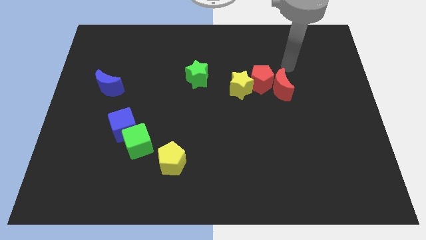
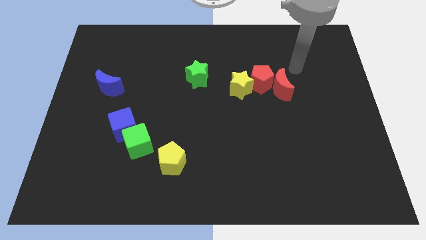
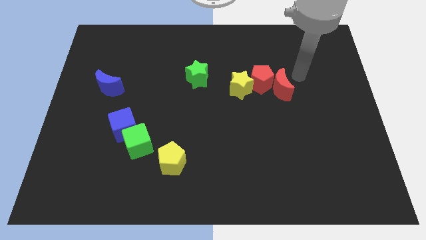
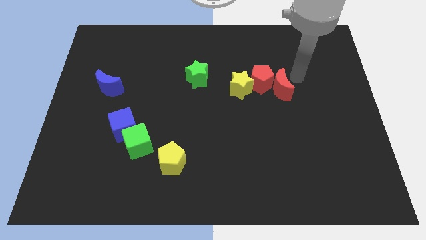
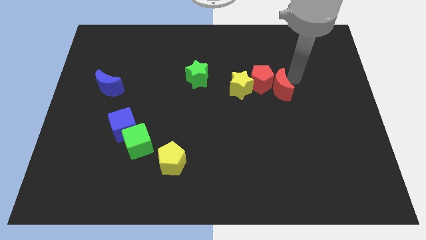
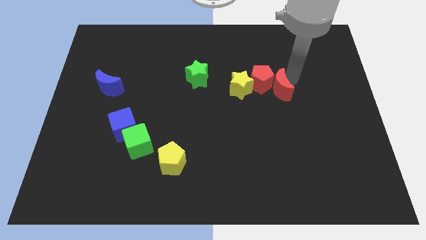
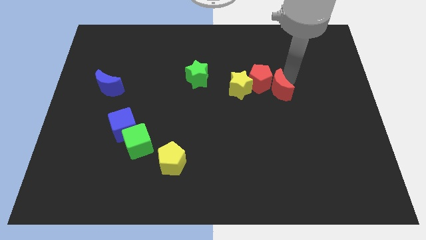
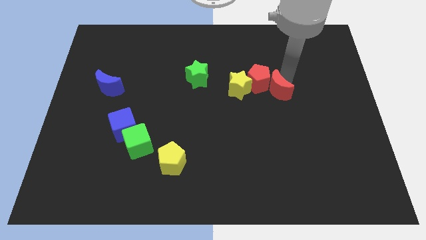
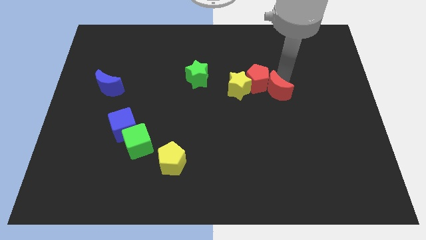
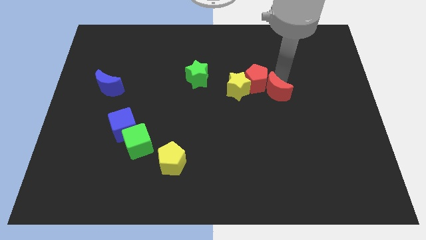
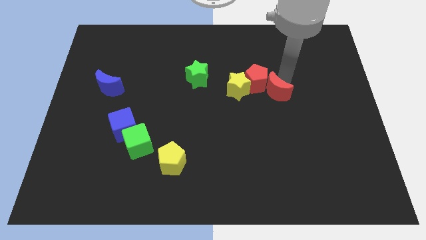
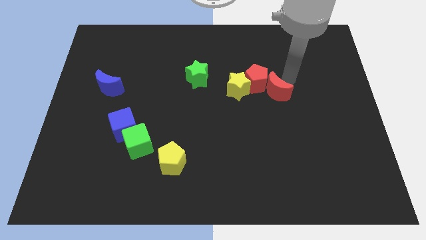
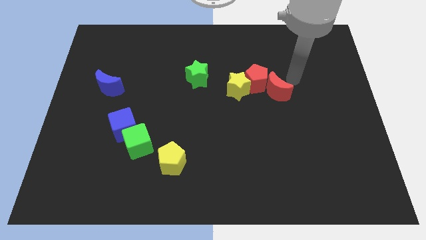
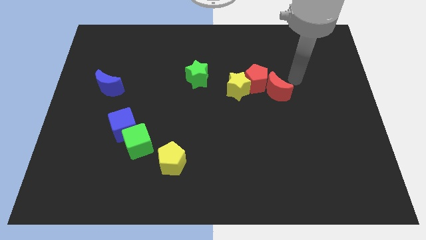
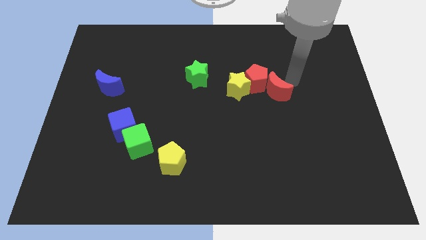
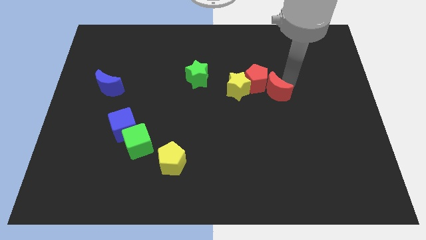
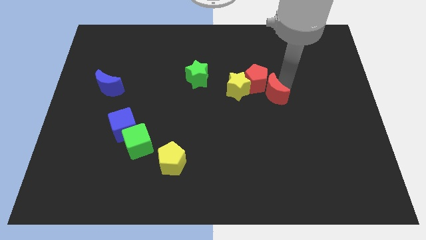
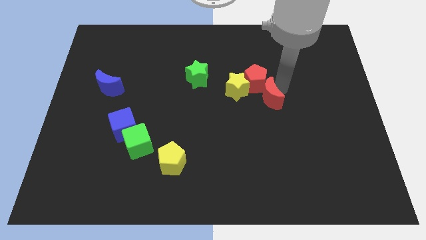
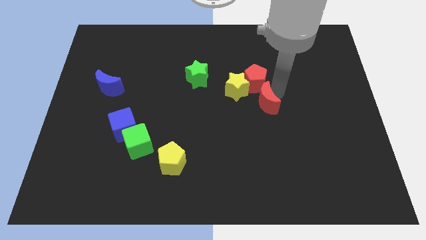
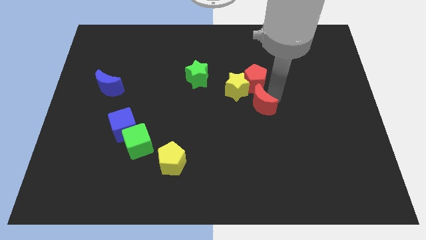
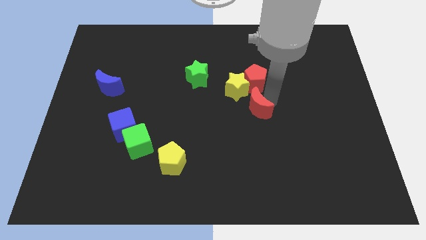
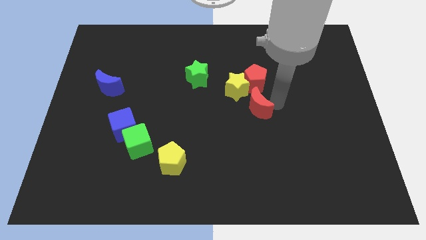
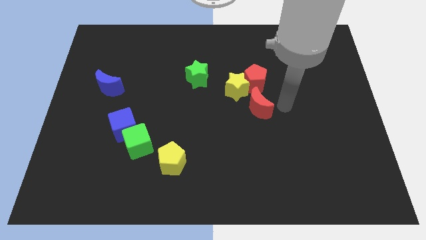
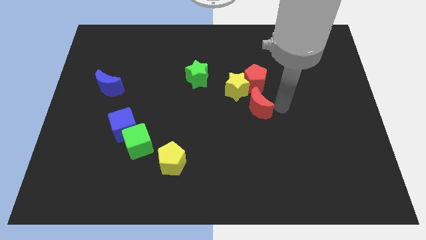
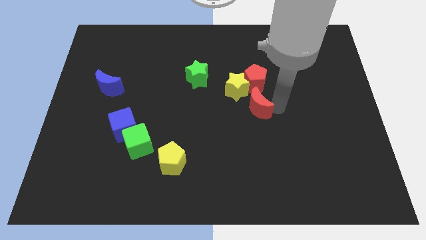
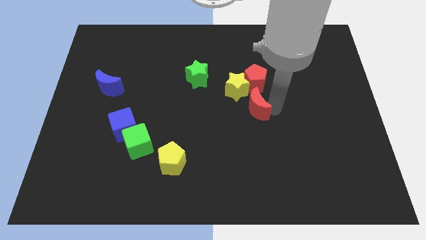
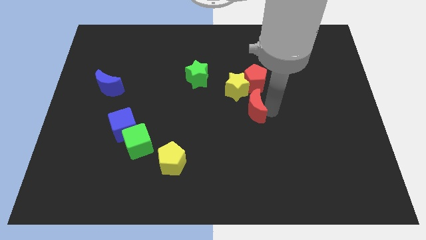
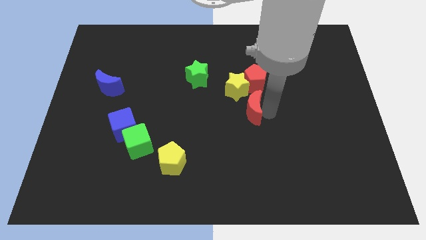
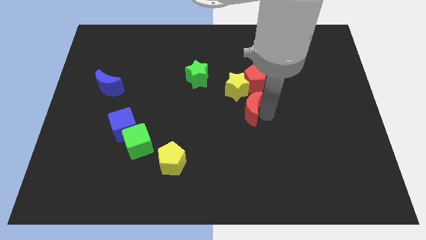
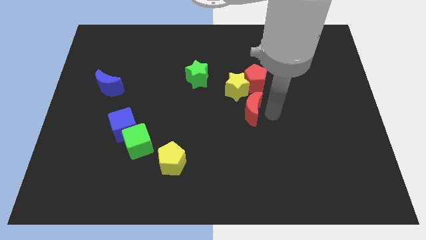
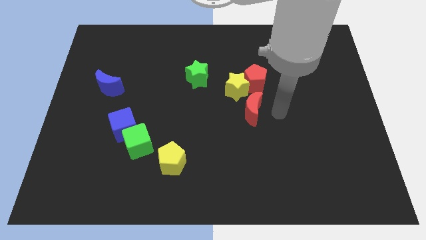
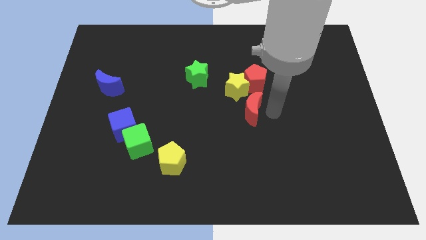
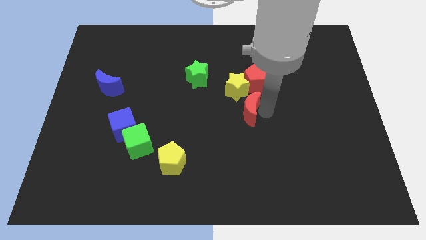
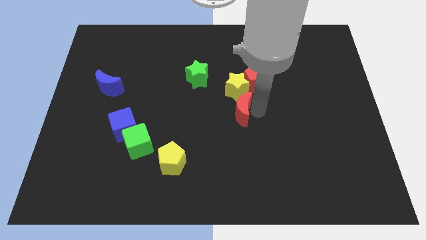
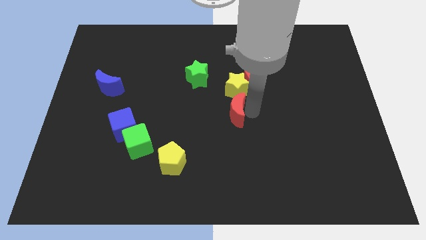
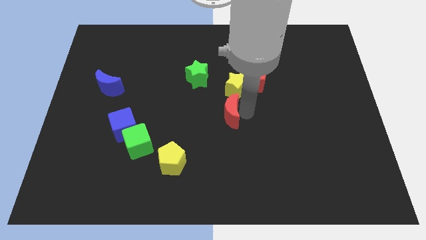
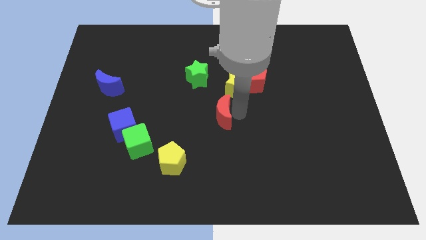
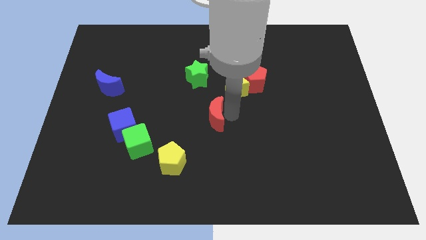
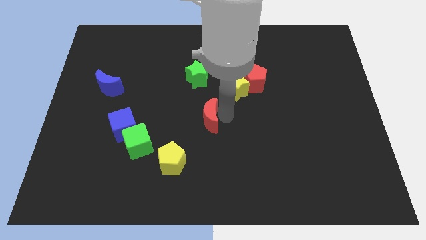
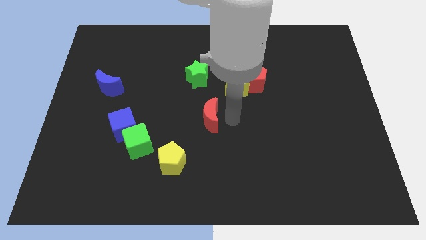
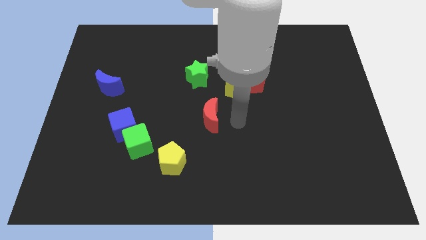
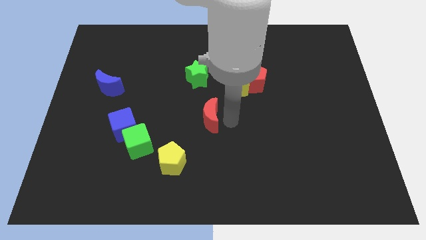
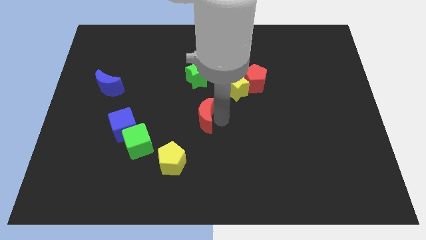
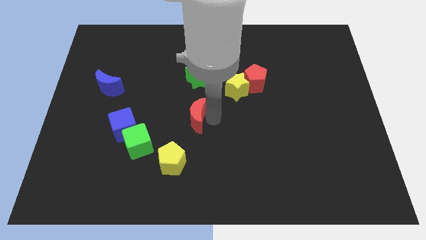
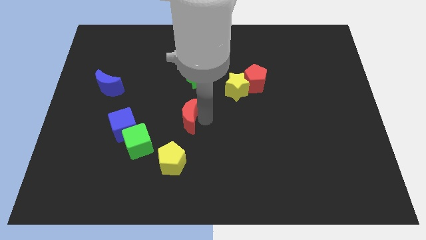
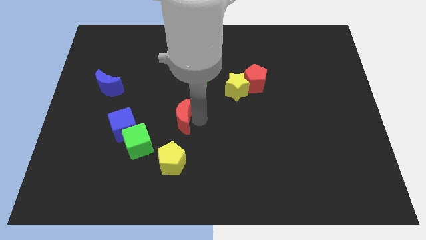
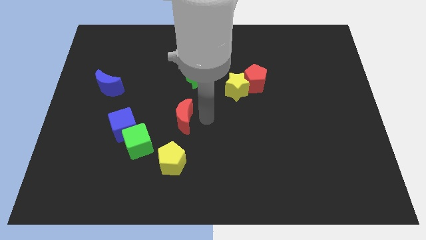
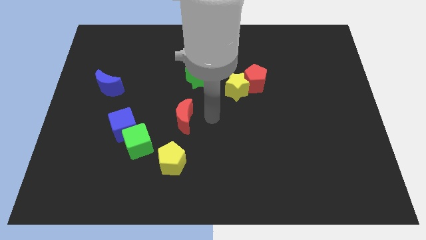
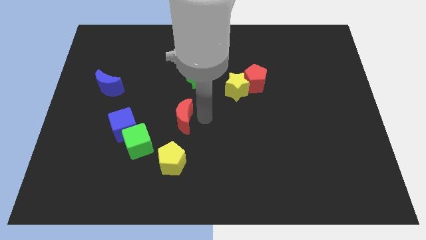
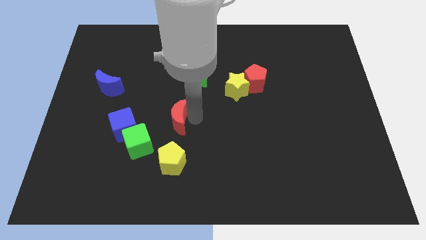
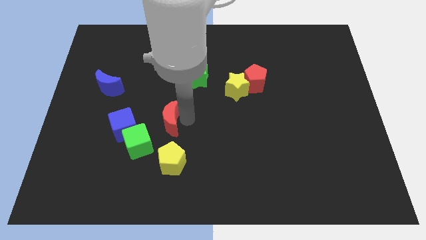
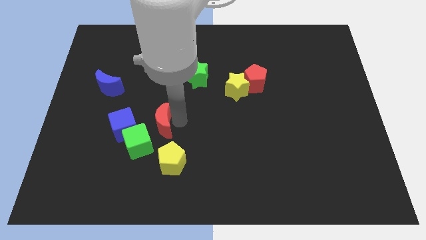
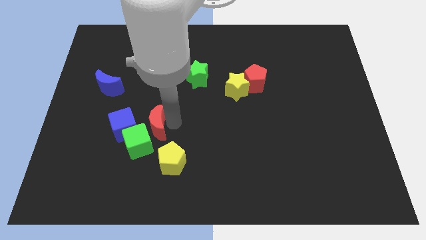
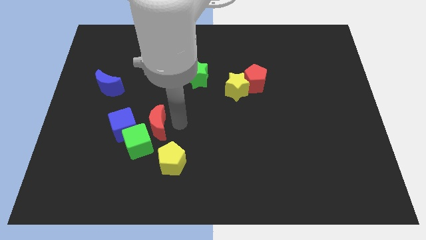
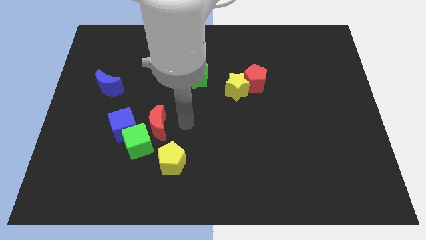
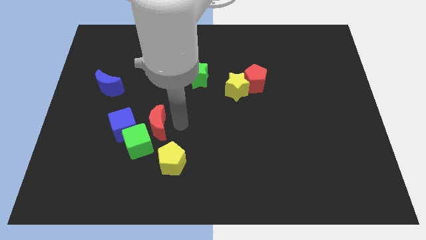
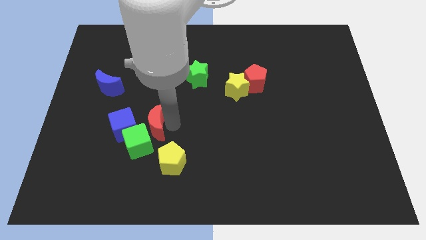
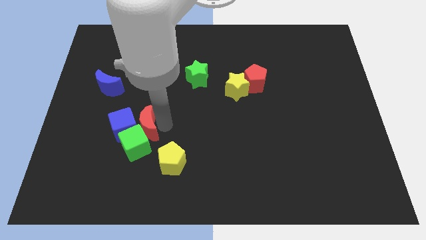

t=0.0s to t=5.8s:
push the red moon to the blue cube

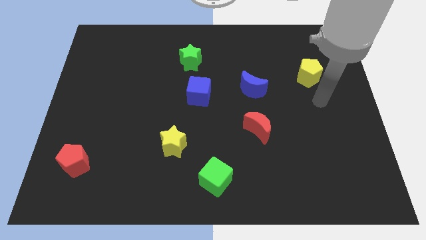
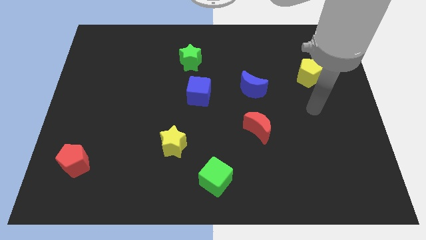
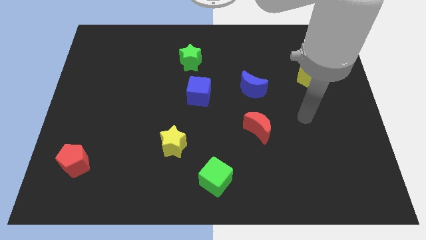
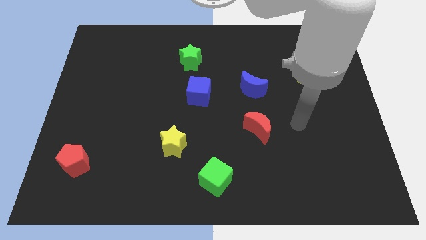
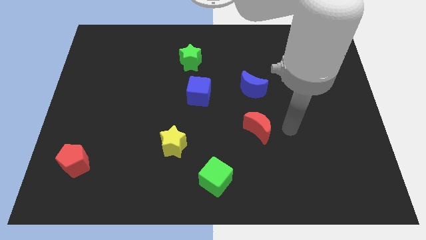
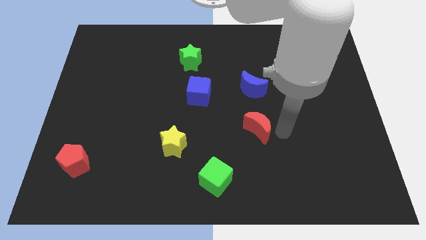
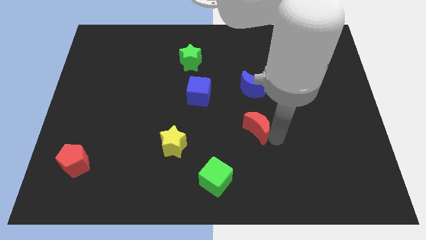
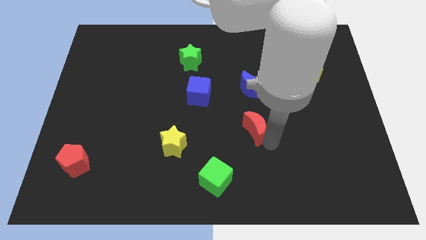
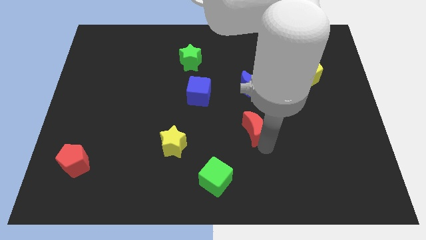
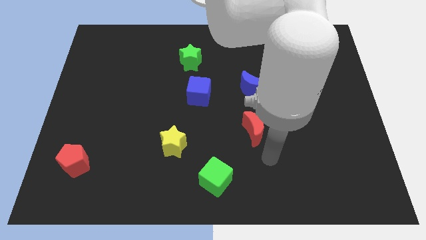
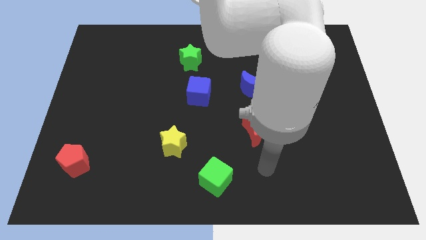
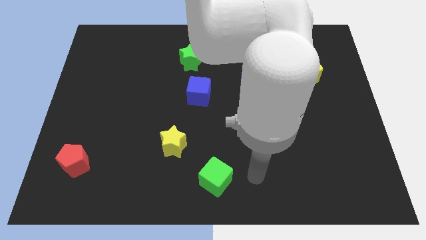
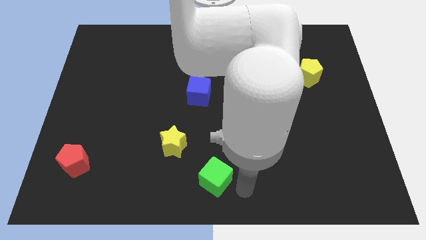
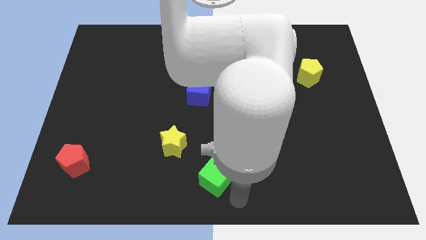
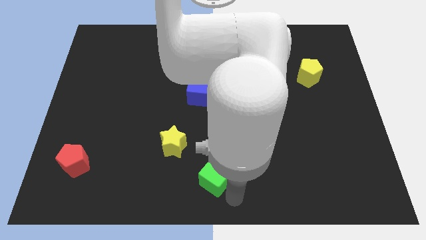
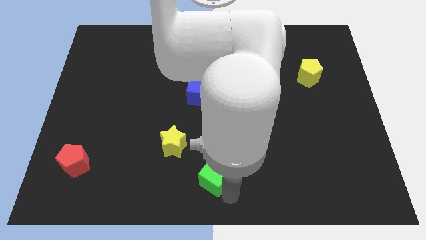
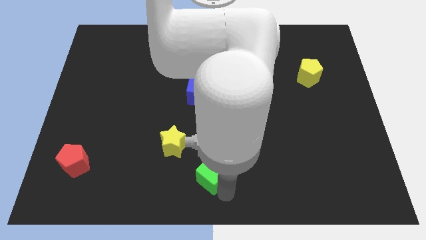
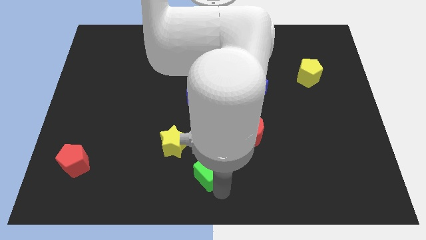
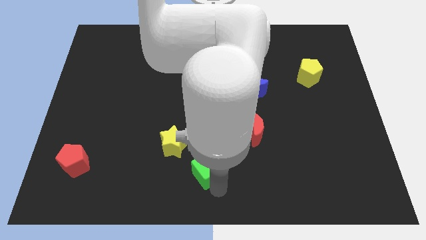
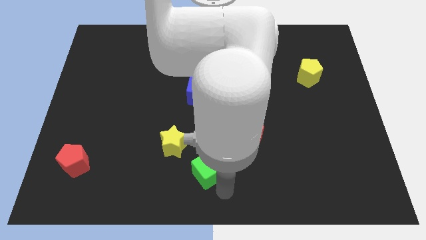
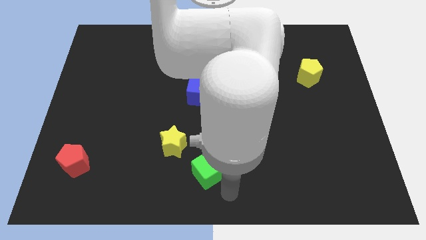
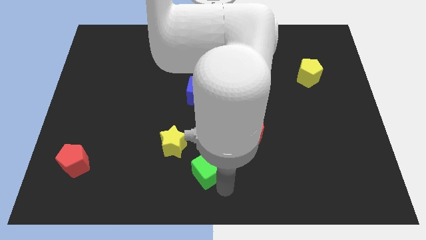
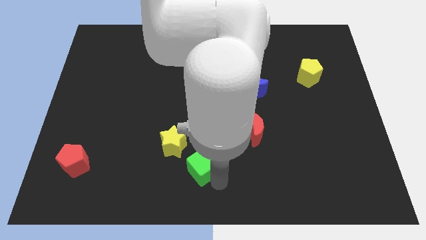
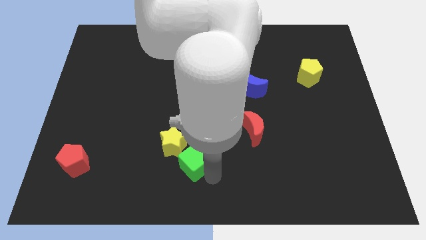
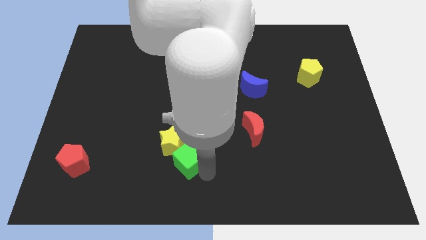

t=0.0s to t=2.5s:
slide the green cube to the yellow star
